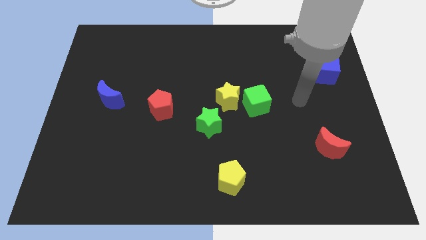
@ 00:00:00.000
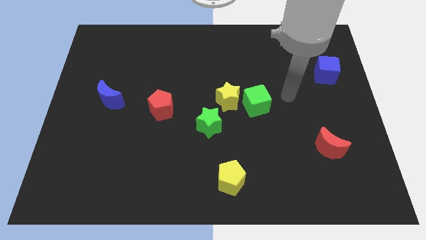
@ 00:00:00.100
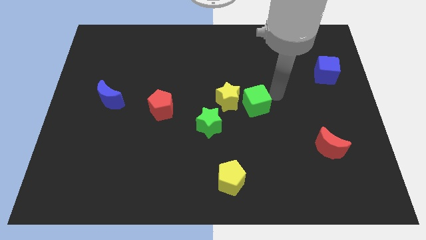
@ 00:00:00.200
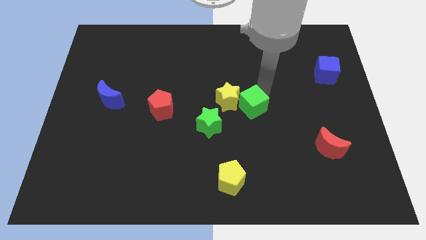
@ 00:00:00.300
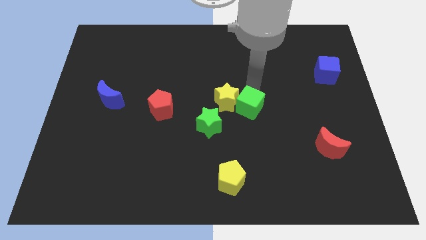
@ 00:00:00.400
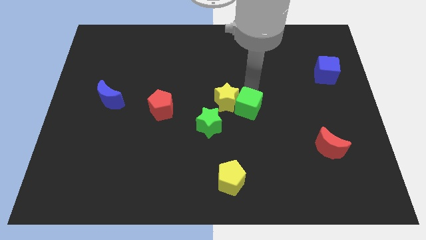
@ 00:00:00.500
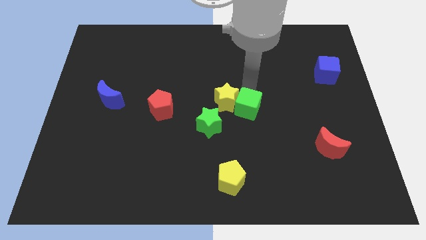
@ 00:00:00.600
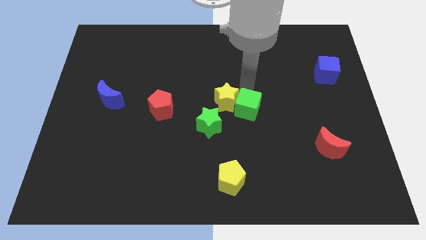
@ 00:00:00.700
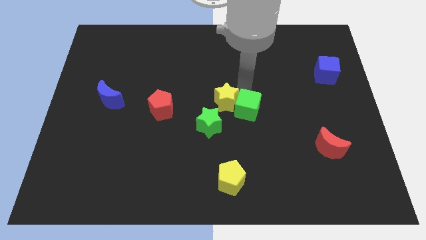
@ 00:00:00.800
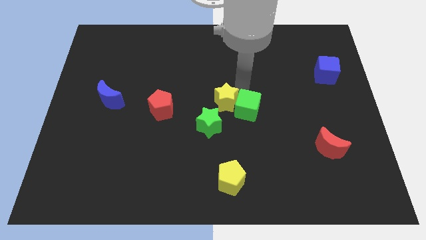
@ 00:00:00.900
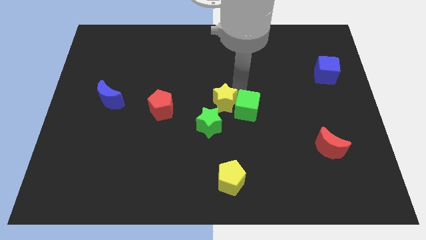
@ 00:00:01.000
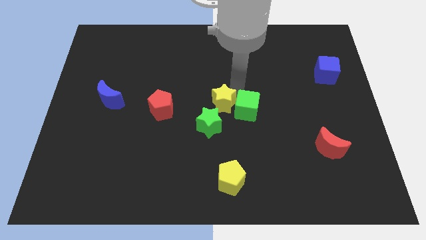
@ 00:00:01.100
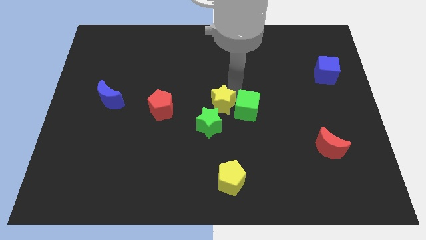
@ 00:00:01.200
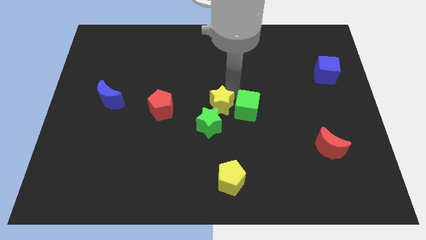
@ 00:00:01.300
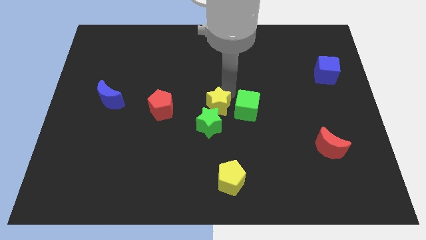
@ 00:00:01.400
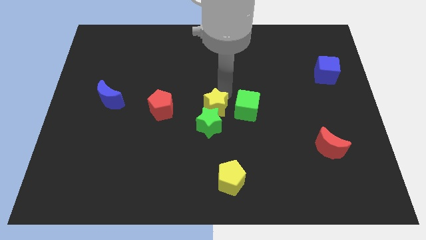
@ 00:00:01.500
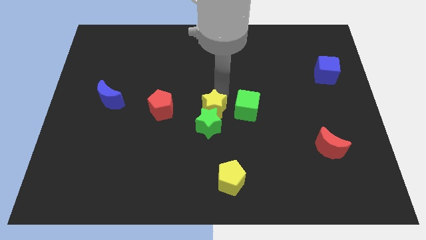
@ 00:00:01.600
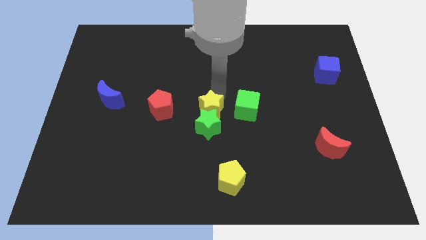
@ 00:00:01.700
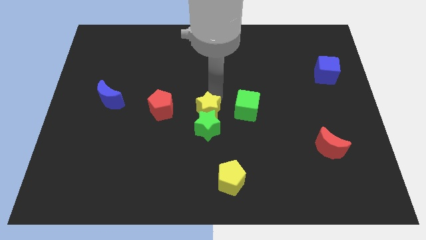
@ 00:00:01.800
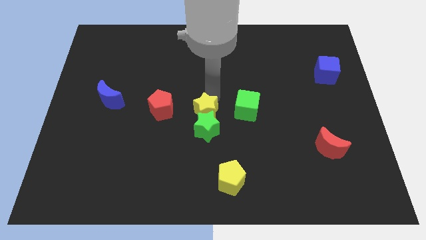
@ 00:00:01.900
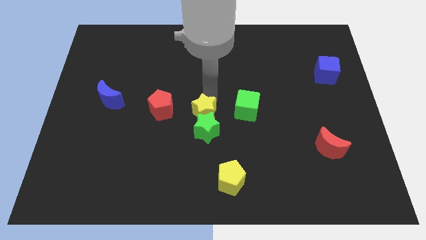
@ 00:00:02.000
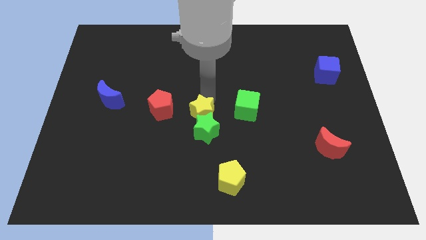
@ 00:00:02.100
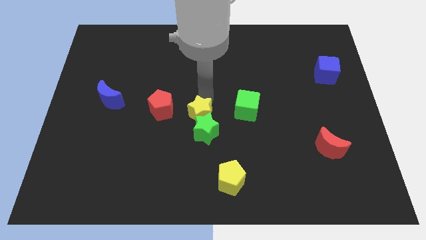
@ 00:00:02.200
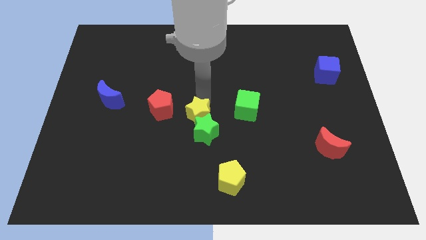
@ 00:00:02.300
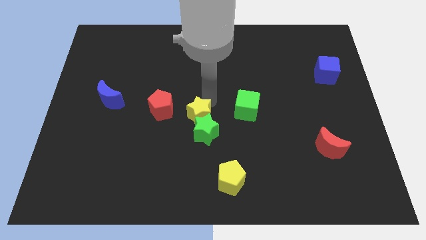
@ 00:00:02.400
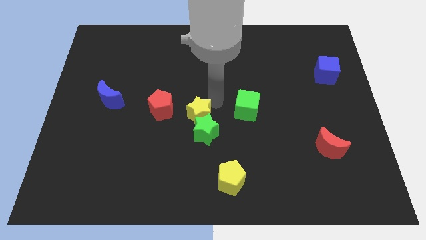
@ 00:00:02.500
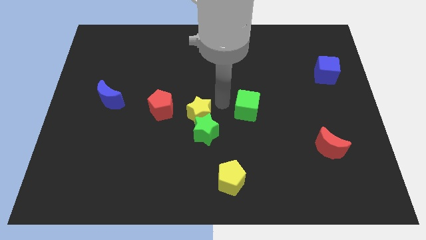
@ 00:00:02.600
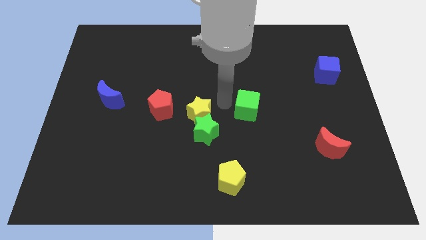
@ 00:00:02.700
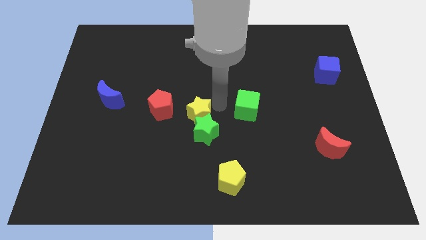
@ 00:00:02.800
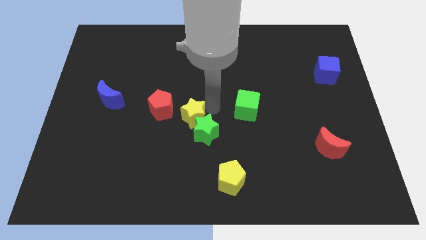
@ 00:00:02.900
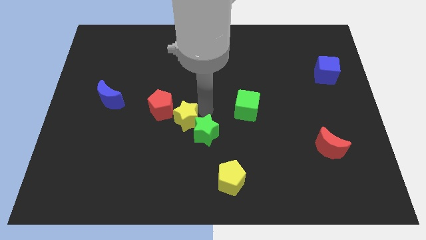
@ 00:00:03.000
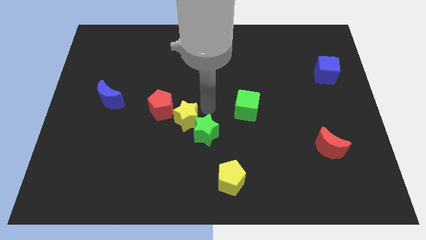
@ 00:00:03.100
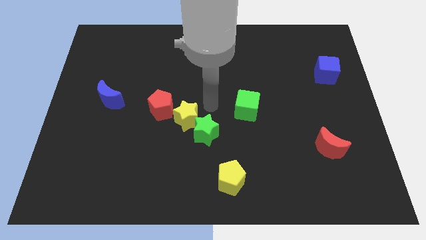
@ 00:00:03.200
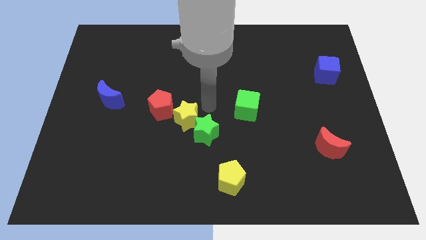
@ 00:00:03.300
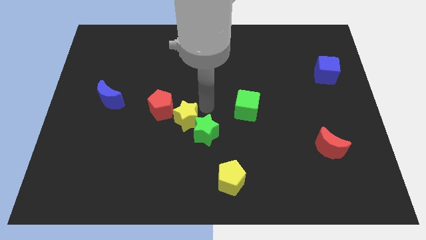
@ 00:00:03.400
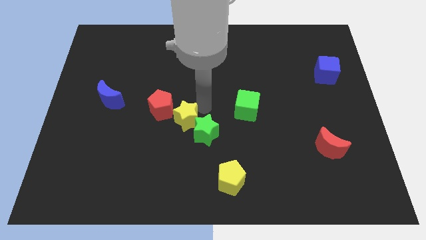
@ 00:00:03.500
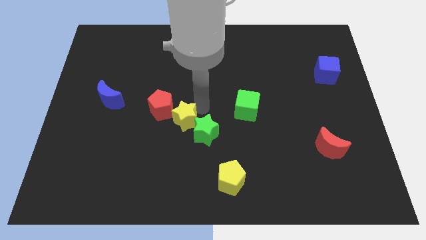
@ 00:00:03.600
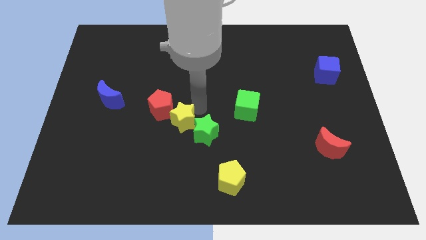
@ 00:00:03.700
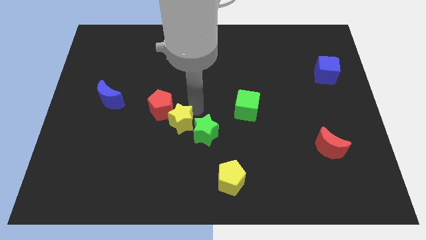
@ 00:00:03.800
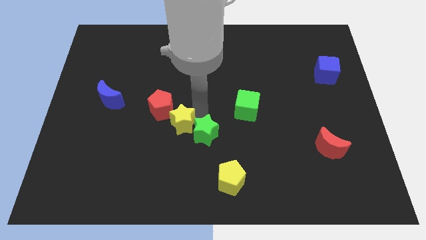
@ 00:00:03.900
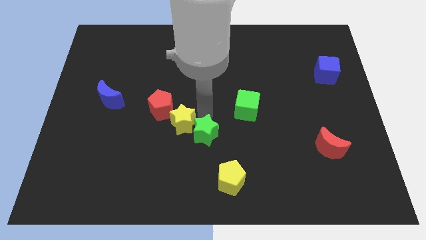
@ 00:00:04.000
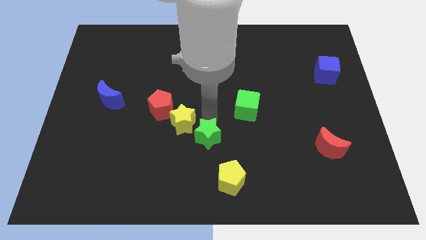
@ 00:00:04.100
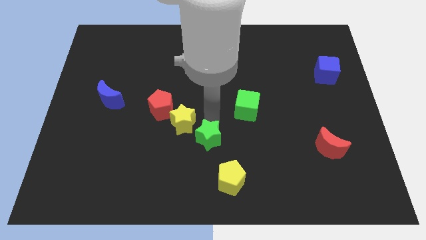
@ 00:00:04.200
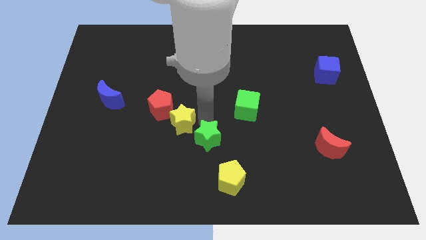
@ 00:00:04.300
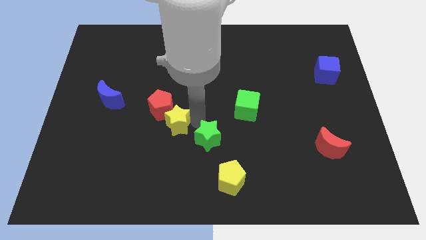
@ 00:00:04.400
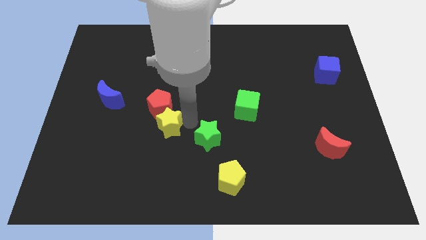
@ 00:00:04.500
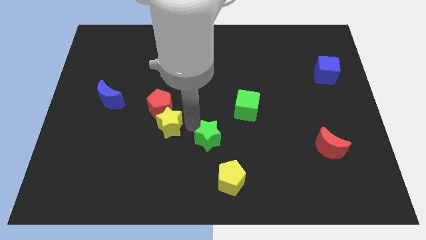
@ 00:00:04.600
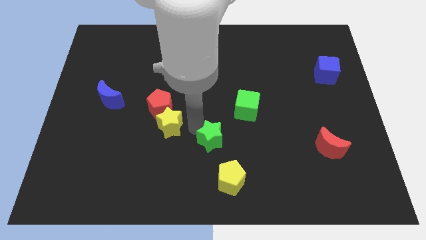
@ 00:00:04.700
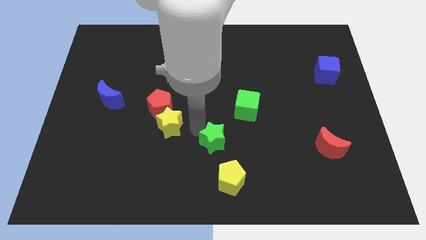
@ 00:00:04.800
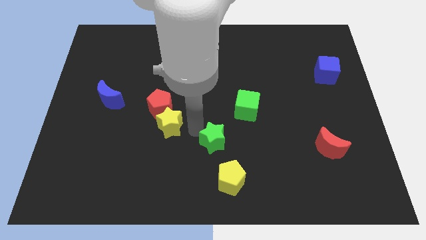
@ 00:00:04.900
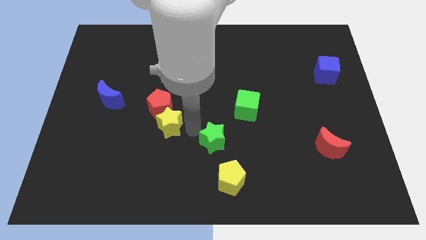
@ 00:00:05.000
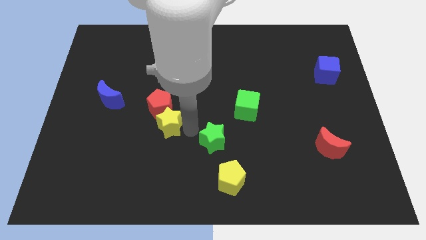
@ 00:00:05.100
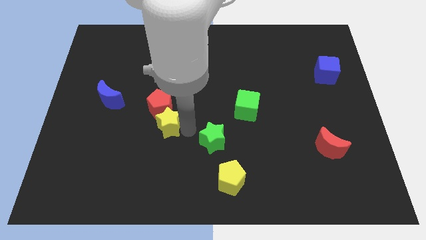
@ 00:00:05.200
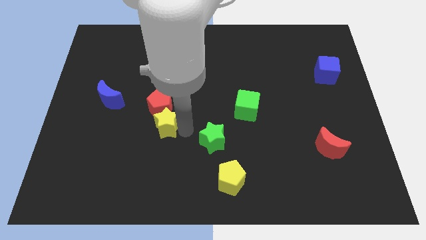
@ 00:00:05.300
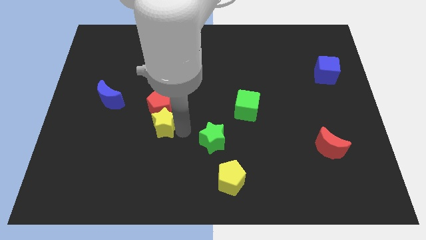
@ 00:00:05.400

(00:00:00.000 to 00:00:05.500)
slide the yellow star to the bottom left of the red pentagon

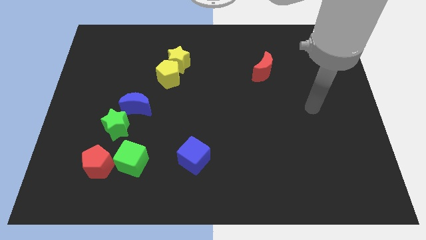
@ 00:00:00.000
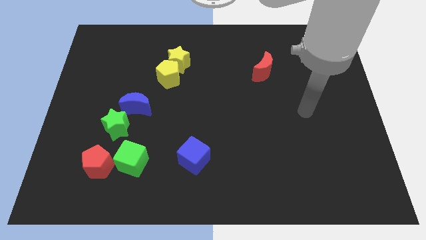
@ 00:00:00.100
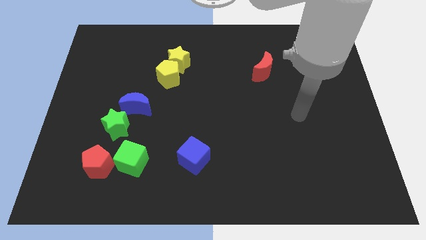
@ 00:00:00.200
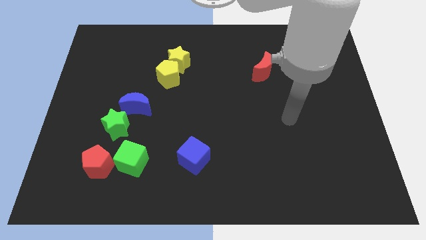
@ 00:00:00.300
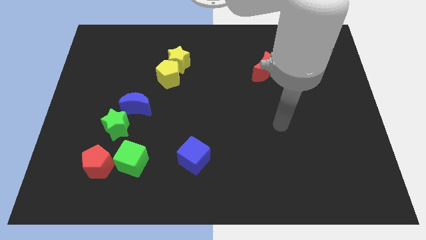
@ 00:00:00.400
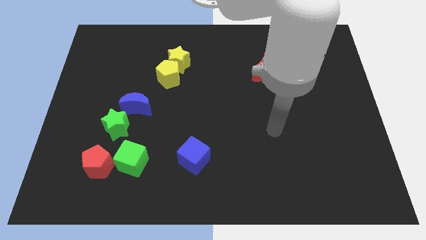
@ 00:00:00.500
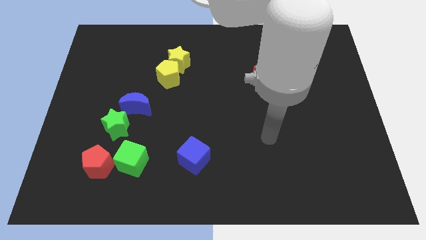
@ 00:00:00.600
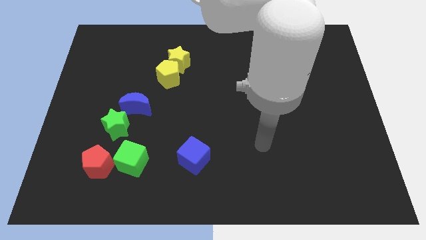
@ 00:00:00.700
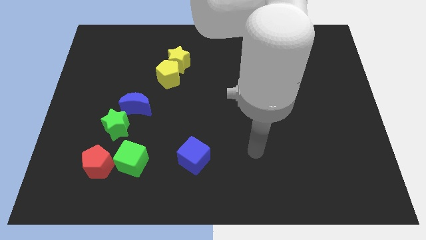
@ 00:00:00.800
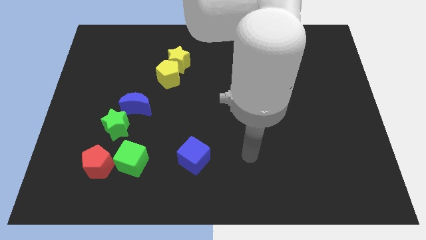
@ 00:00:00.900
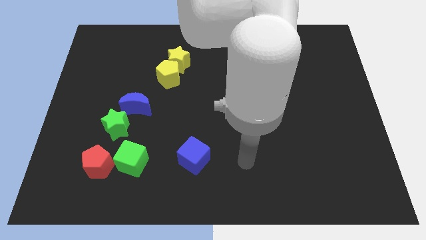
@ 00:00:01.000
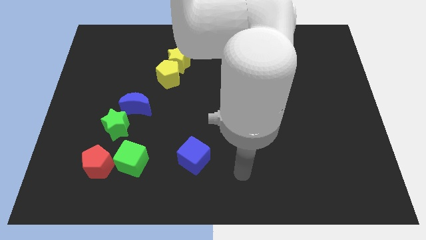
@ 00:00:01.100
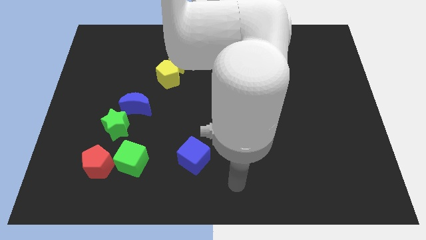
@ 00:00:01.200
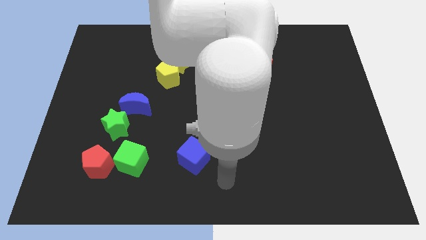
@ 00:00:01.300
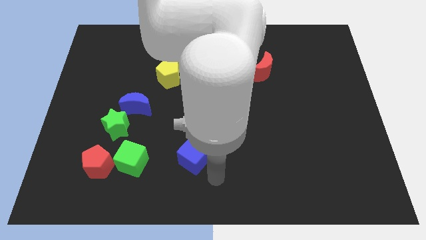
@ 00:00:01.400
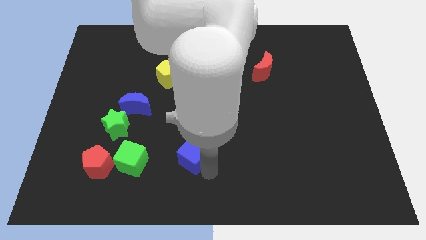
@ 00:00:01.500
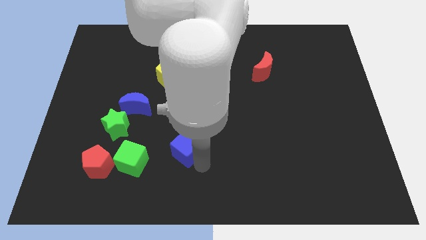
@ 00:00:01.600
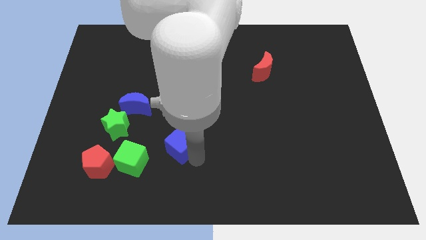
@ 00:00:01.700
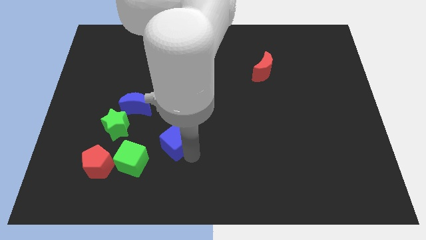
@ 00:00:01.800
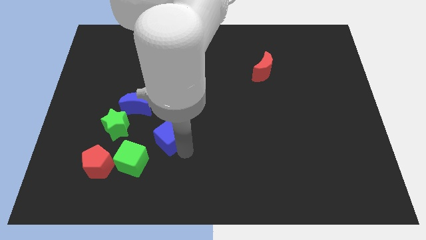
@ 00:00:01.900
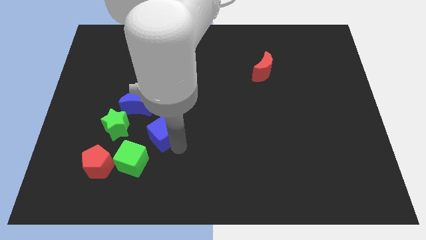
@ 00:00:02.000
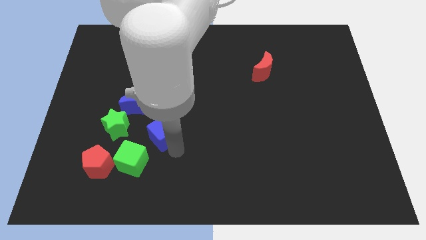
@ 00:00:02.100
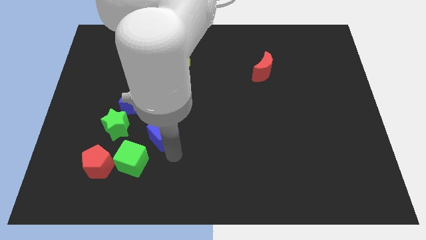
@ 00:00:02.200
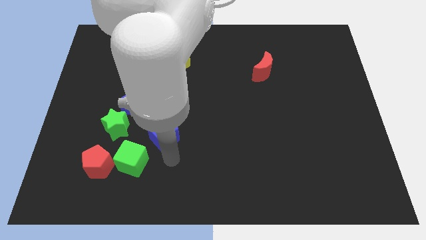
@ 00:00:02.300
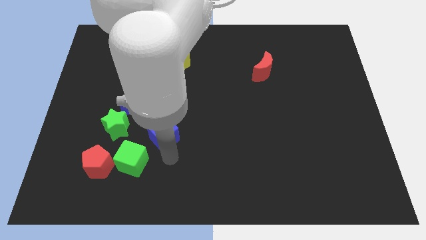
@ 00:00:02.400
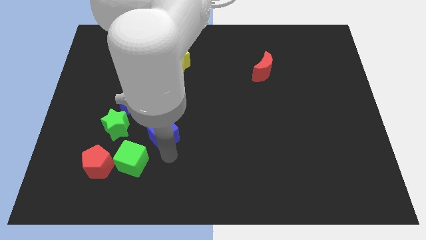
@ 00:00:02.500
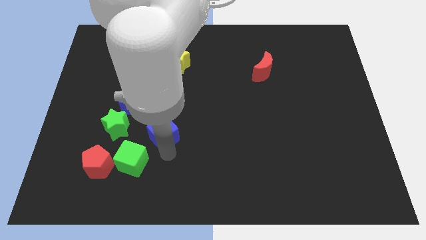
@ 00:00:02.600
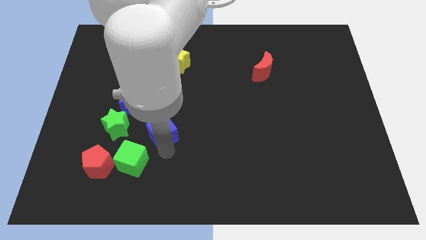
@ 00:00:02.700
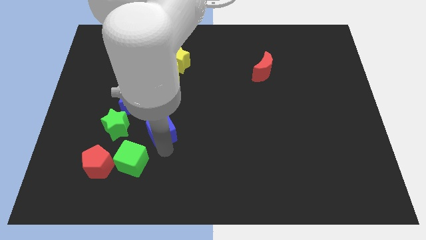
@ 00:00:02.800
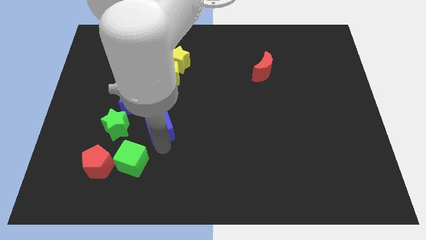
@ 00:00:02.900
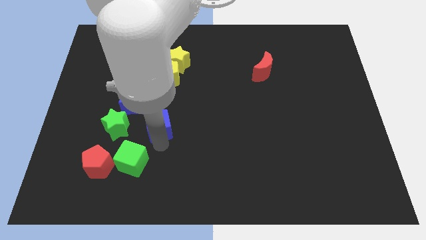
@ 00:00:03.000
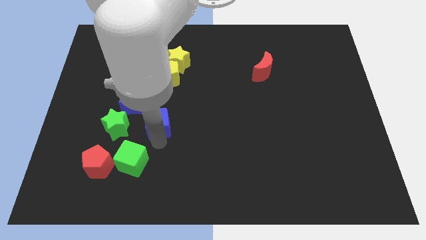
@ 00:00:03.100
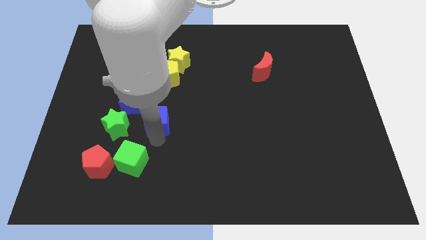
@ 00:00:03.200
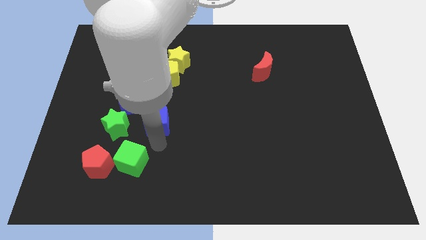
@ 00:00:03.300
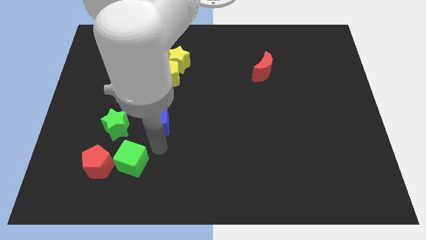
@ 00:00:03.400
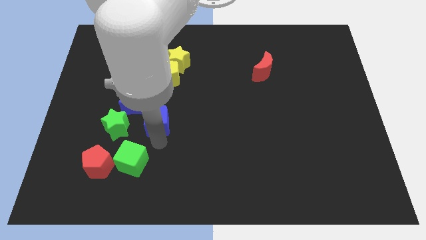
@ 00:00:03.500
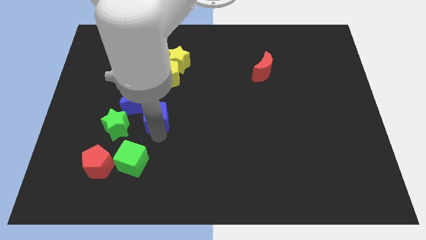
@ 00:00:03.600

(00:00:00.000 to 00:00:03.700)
move the blue cube diagonally up and to the right of the green star
